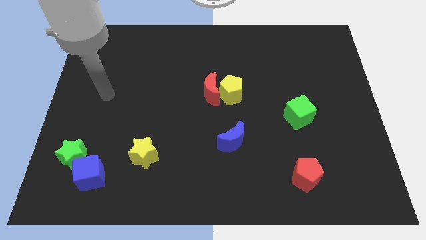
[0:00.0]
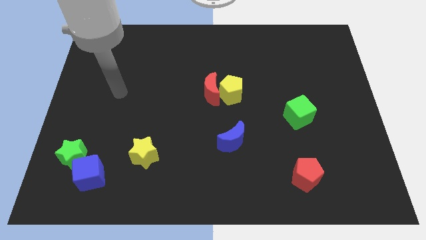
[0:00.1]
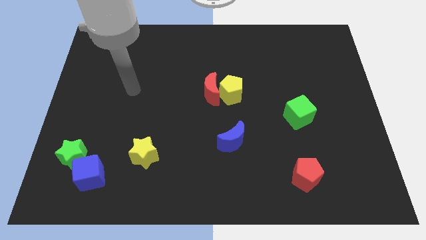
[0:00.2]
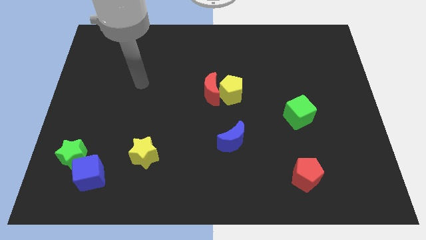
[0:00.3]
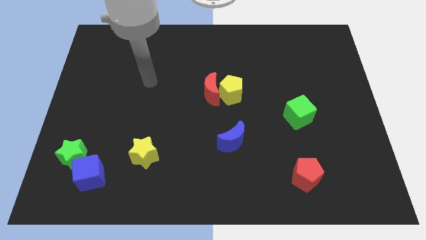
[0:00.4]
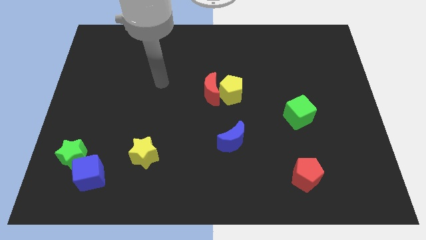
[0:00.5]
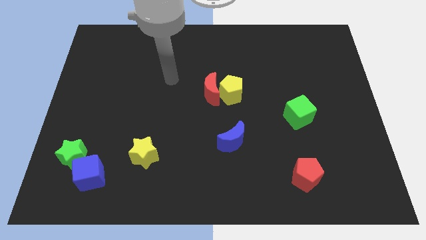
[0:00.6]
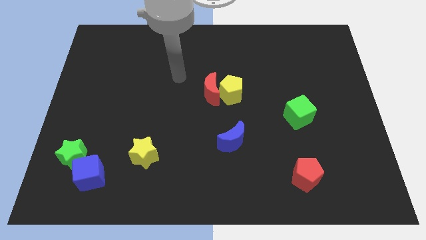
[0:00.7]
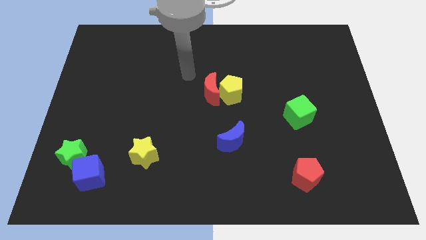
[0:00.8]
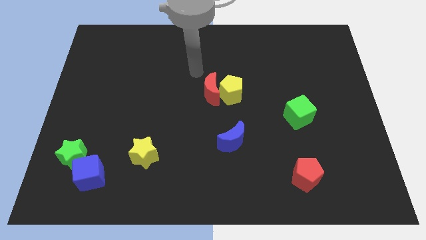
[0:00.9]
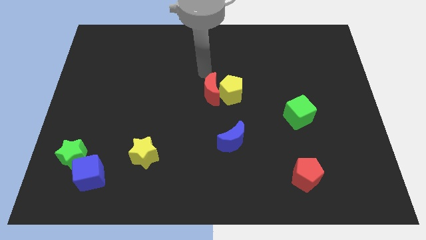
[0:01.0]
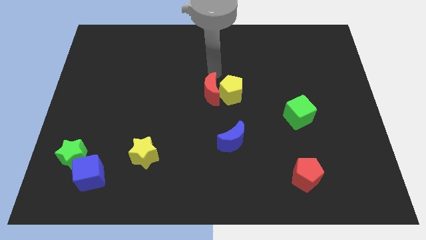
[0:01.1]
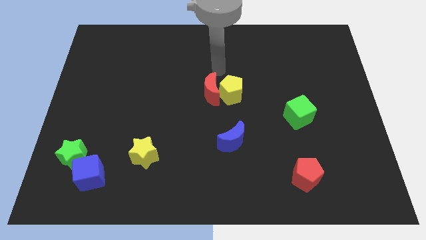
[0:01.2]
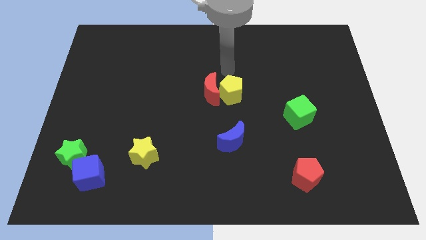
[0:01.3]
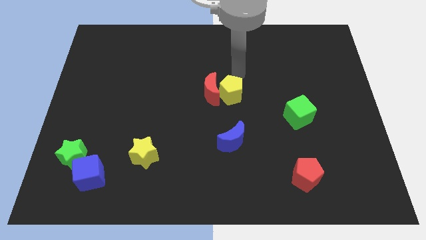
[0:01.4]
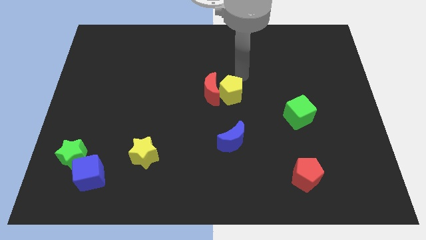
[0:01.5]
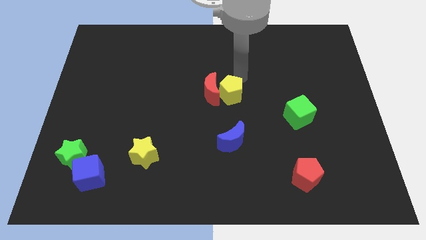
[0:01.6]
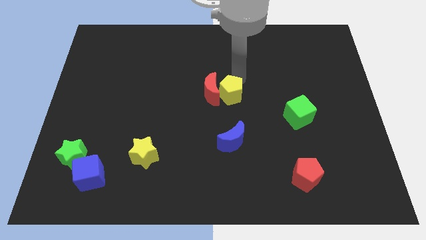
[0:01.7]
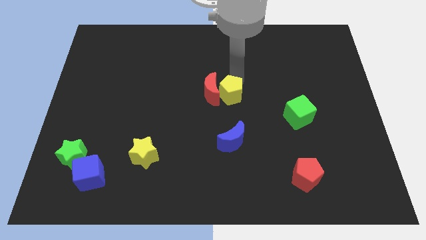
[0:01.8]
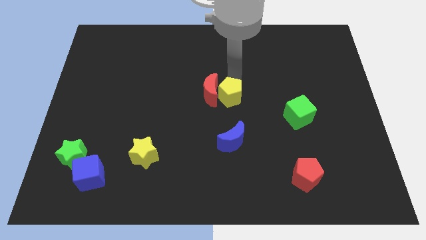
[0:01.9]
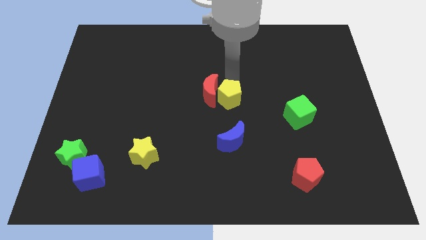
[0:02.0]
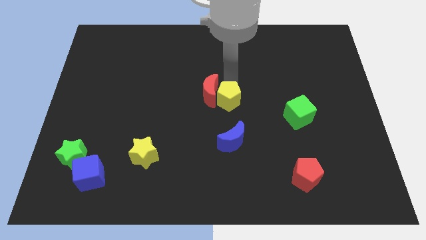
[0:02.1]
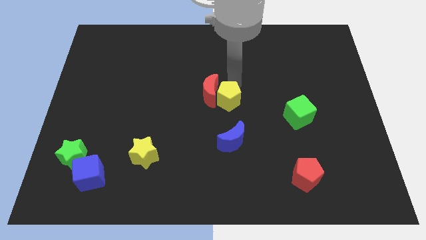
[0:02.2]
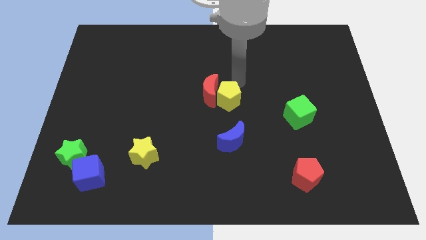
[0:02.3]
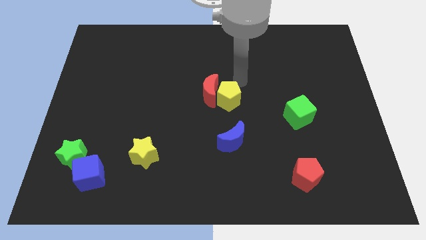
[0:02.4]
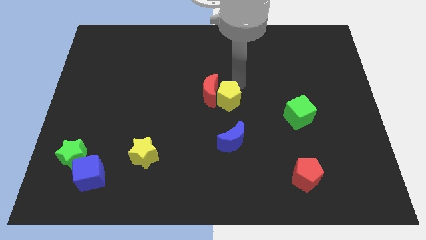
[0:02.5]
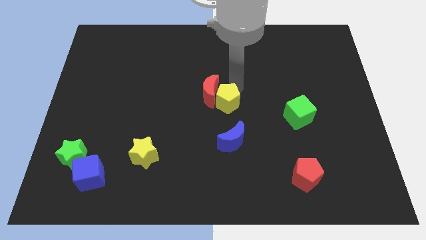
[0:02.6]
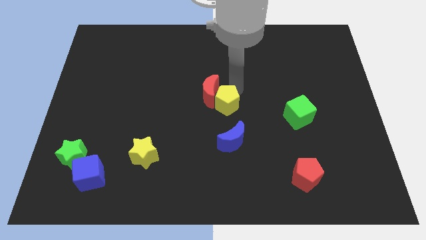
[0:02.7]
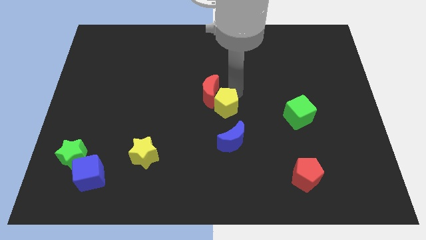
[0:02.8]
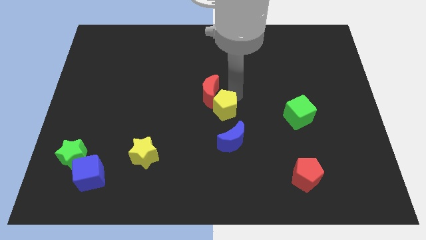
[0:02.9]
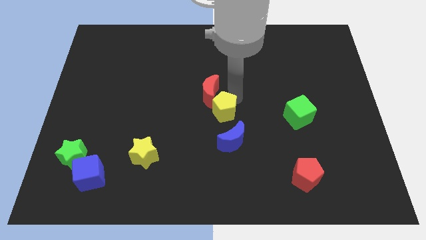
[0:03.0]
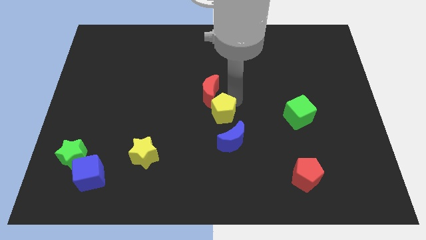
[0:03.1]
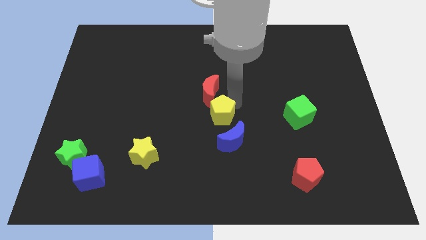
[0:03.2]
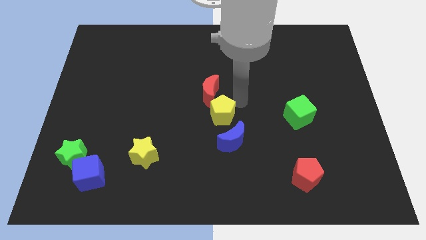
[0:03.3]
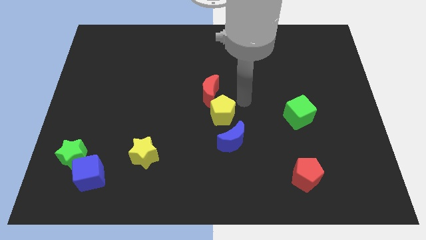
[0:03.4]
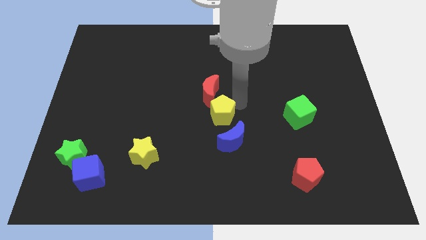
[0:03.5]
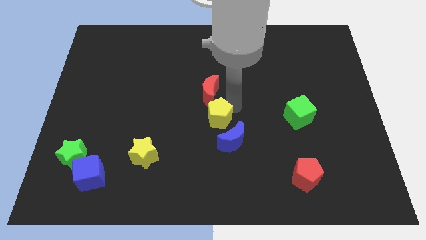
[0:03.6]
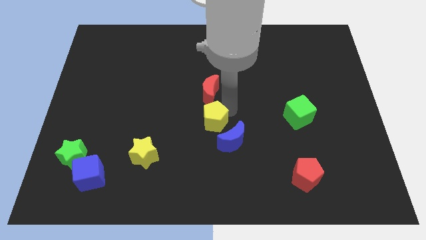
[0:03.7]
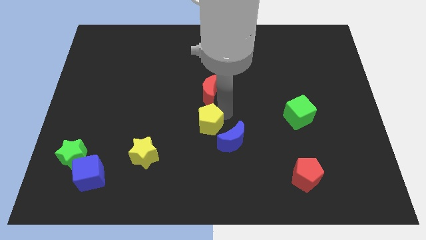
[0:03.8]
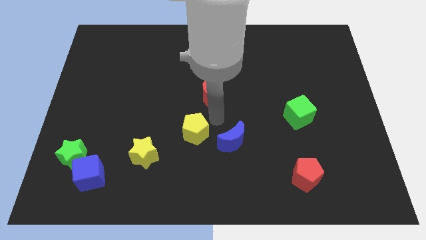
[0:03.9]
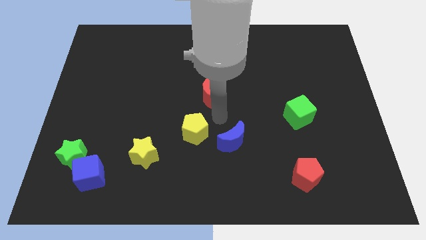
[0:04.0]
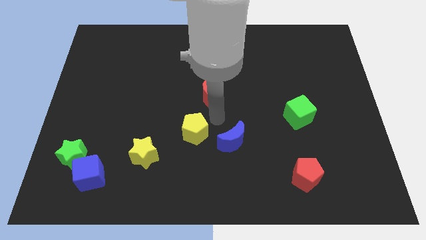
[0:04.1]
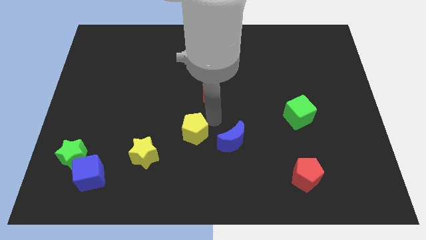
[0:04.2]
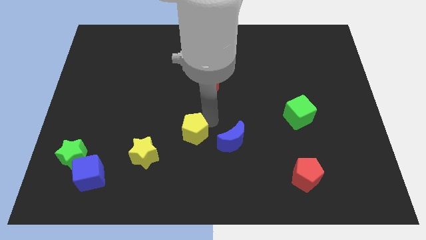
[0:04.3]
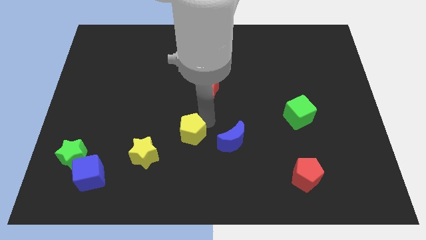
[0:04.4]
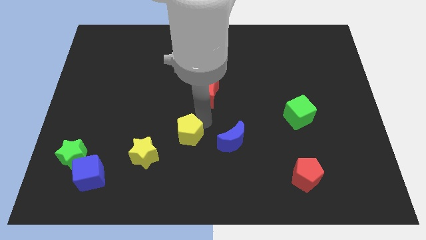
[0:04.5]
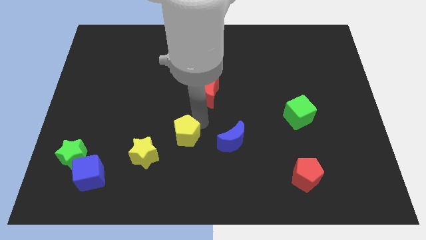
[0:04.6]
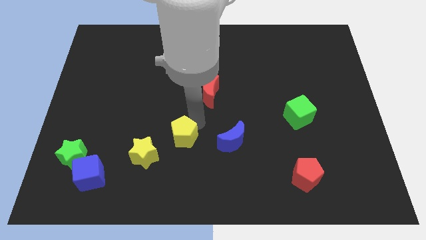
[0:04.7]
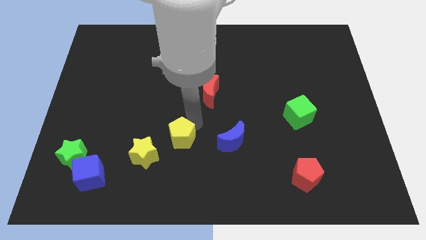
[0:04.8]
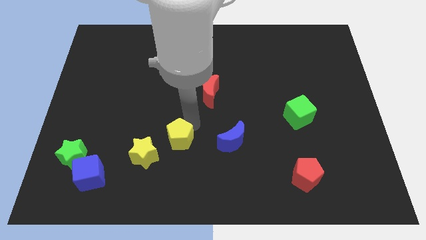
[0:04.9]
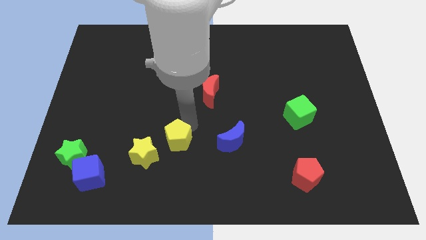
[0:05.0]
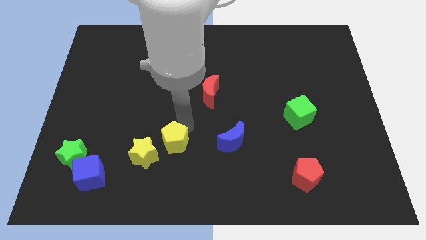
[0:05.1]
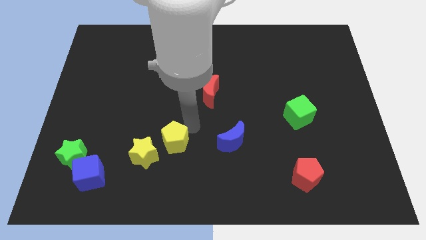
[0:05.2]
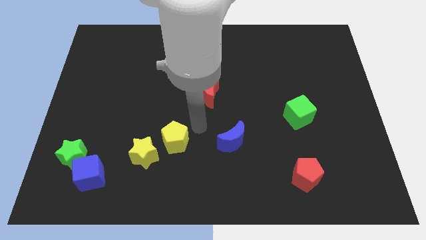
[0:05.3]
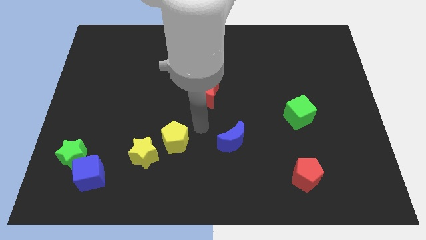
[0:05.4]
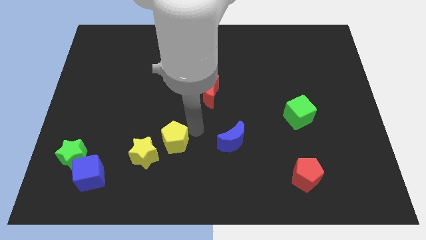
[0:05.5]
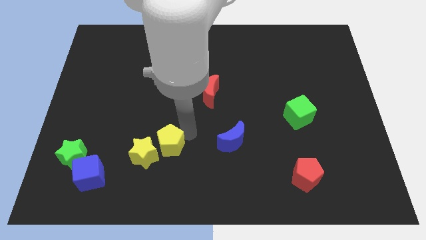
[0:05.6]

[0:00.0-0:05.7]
move the yellow pentagon to the yellow star

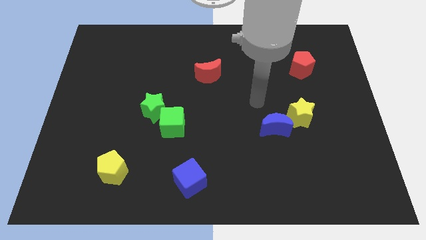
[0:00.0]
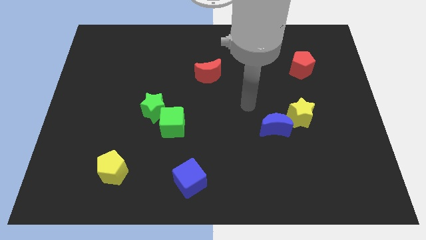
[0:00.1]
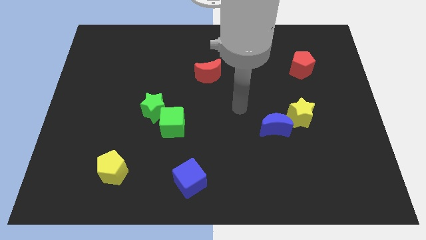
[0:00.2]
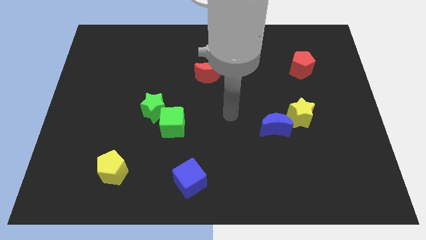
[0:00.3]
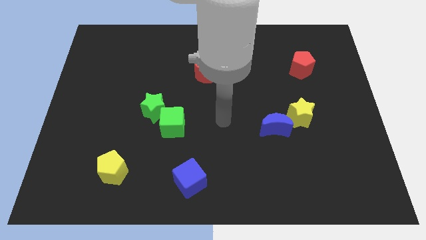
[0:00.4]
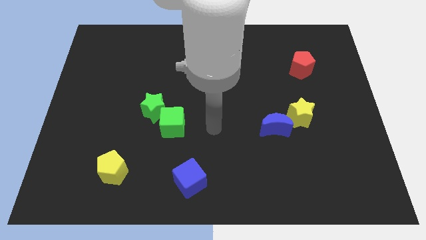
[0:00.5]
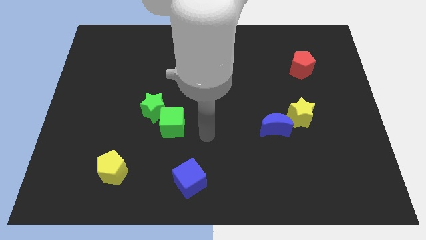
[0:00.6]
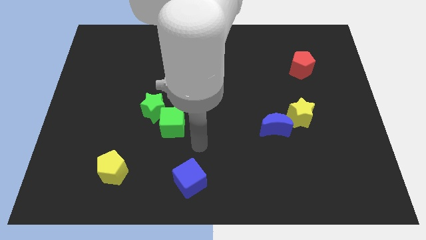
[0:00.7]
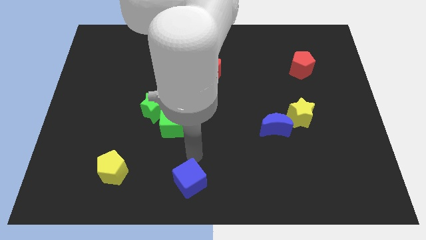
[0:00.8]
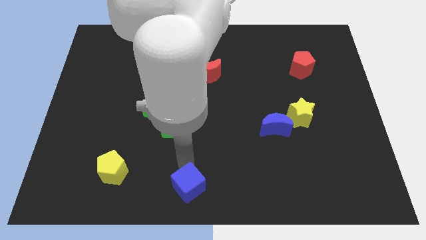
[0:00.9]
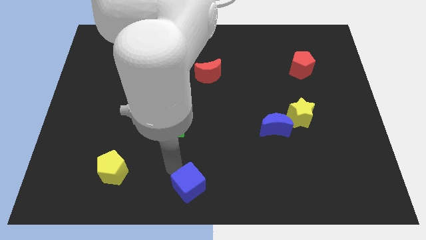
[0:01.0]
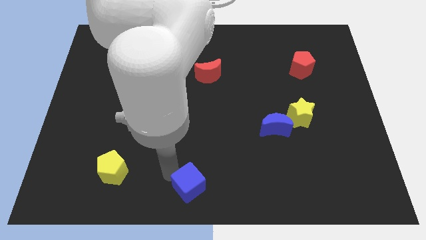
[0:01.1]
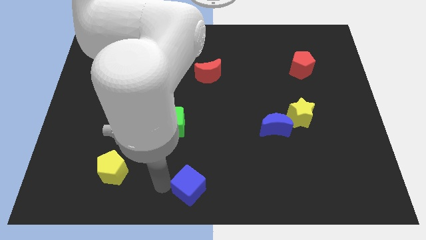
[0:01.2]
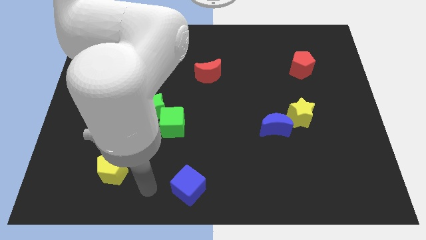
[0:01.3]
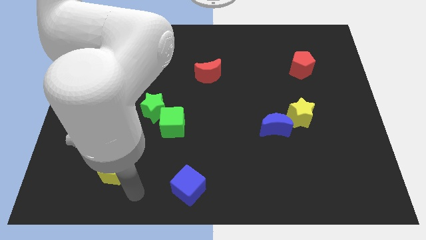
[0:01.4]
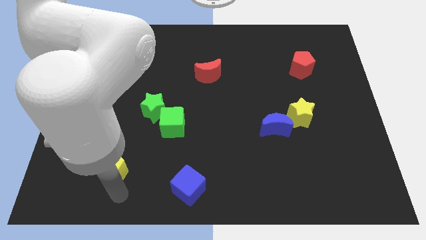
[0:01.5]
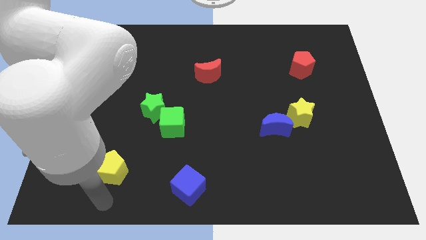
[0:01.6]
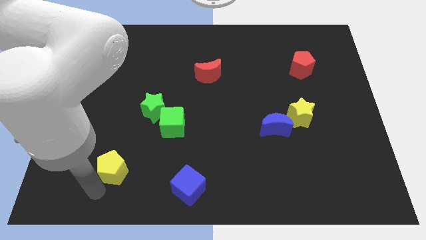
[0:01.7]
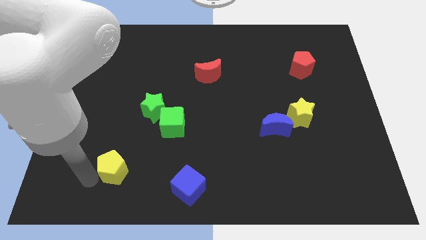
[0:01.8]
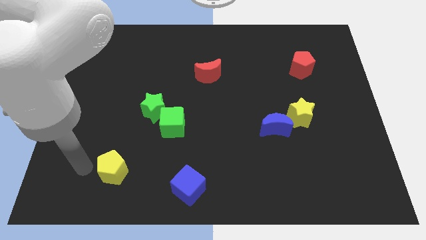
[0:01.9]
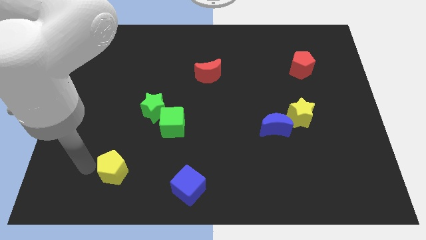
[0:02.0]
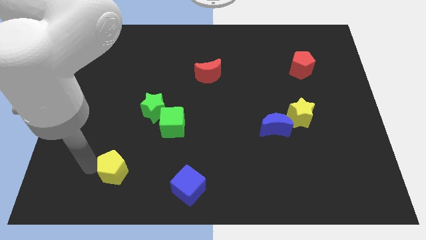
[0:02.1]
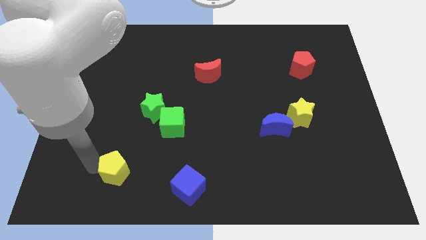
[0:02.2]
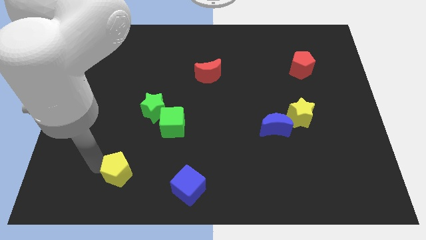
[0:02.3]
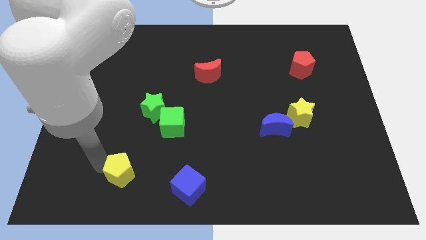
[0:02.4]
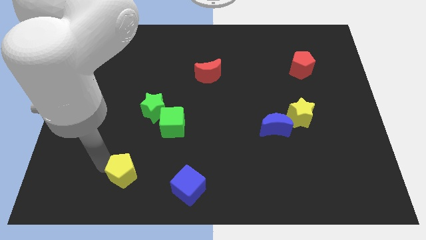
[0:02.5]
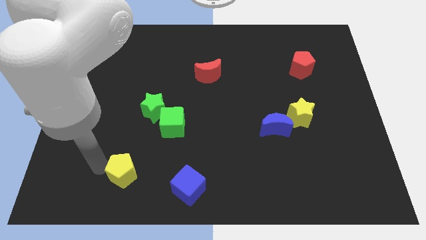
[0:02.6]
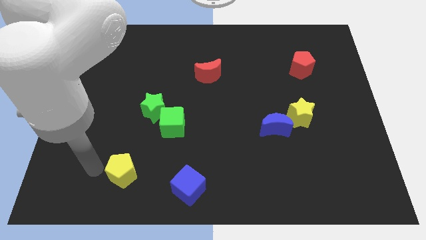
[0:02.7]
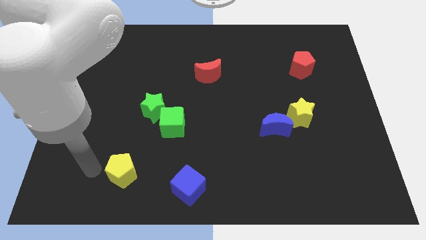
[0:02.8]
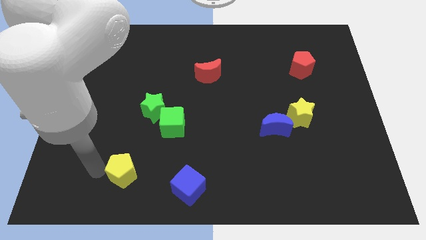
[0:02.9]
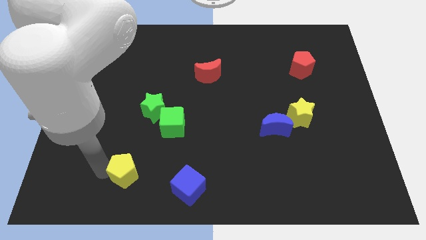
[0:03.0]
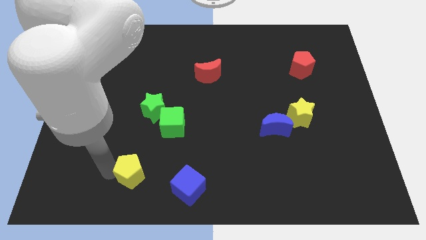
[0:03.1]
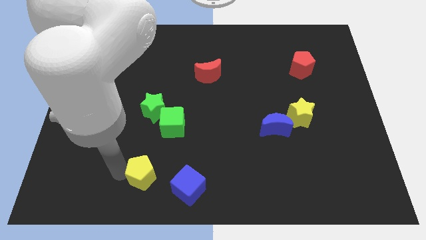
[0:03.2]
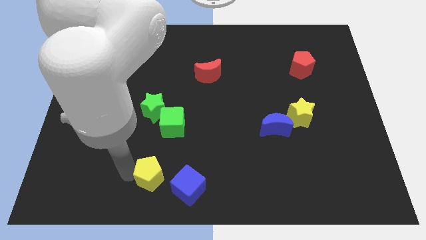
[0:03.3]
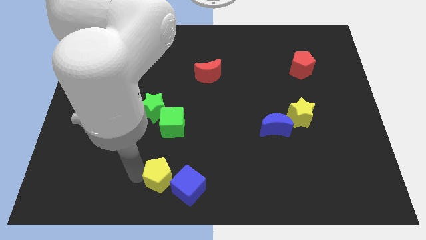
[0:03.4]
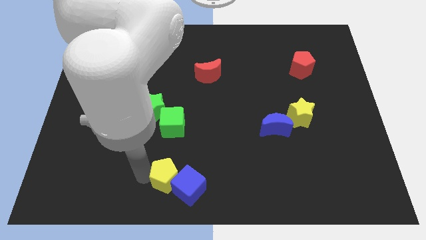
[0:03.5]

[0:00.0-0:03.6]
push the yellow pentagon to the blue cube
